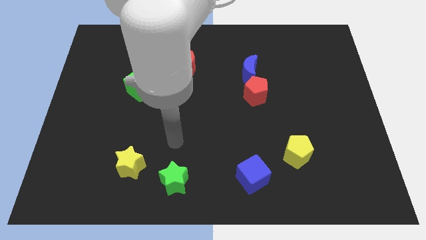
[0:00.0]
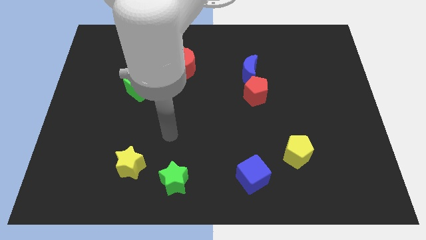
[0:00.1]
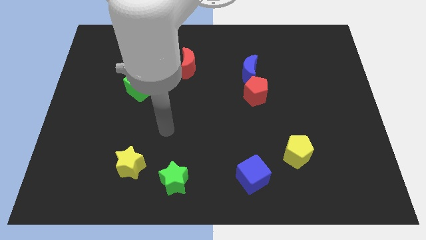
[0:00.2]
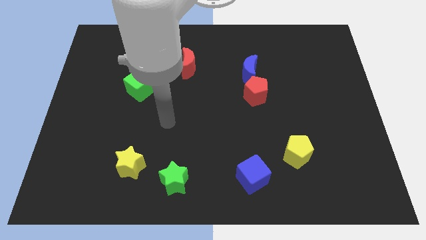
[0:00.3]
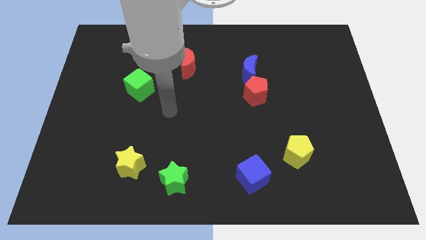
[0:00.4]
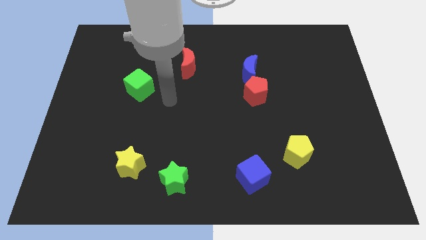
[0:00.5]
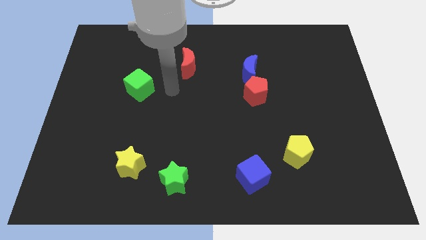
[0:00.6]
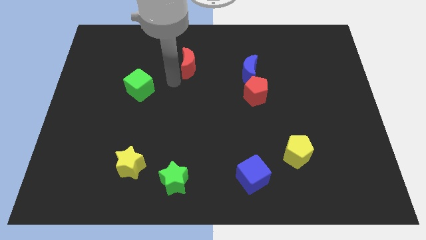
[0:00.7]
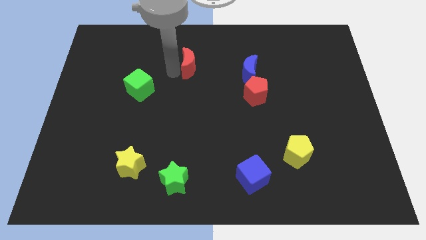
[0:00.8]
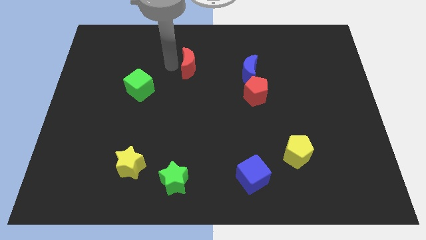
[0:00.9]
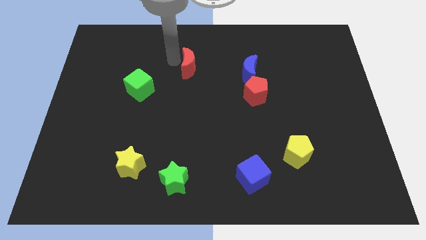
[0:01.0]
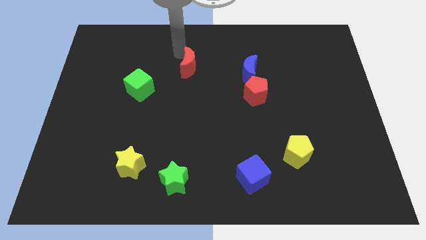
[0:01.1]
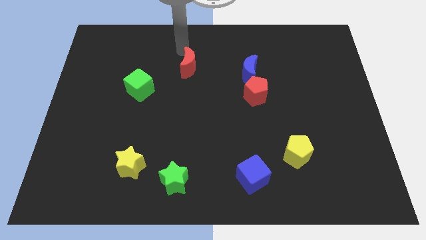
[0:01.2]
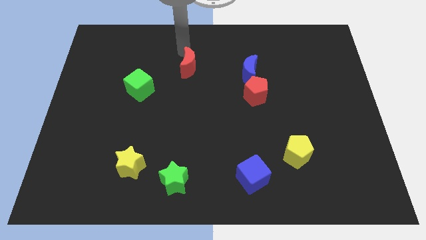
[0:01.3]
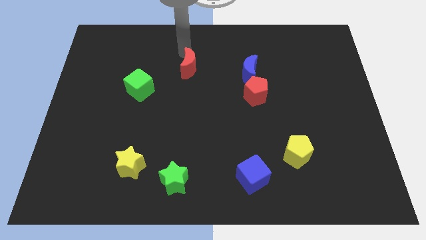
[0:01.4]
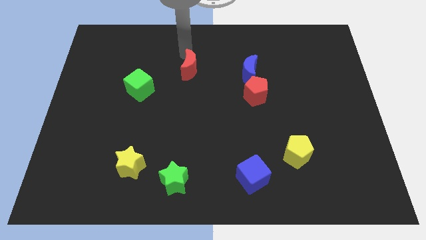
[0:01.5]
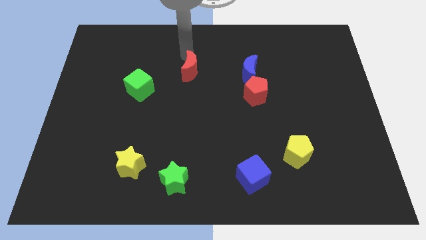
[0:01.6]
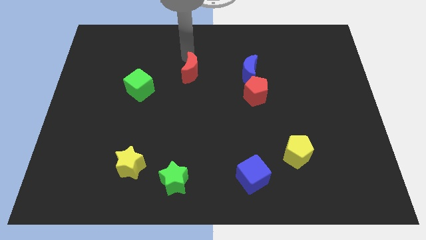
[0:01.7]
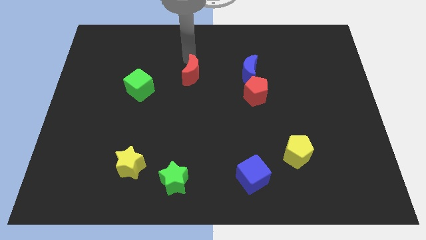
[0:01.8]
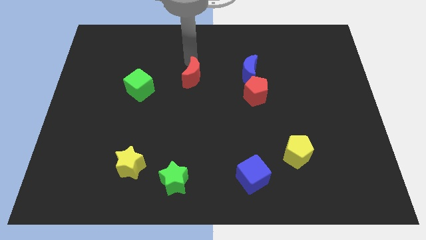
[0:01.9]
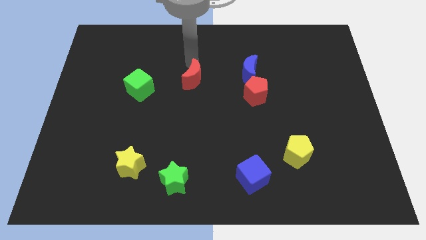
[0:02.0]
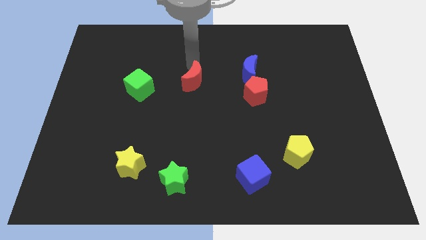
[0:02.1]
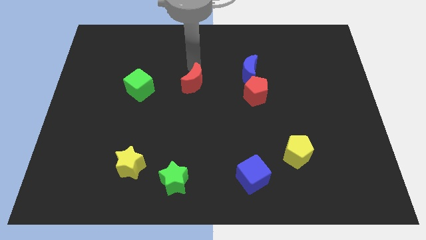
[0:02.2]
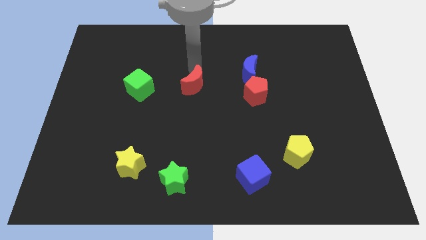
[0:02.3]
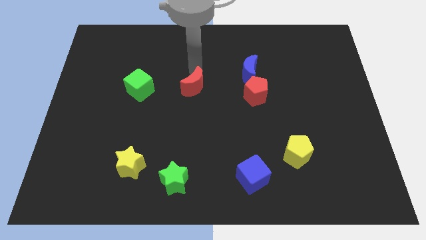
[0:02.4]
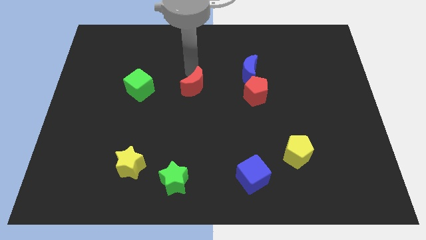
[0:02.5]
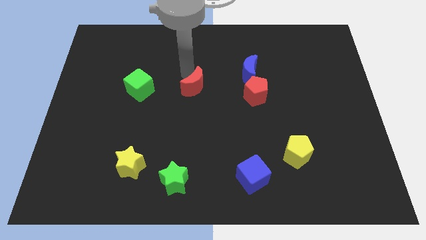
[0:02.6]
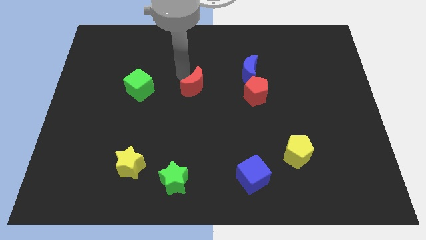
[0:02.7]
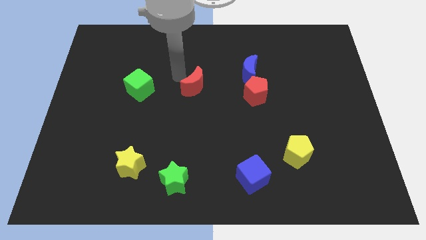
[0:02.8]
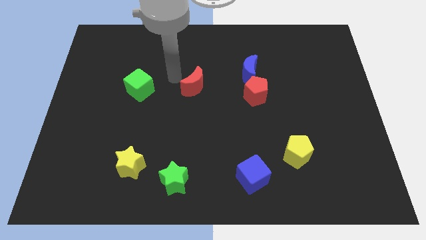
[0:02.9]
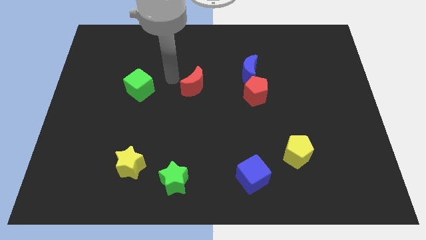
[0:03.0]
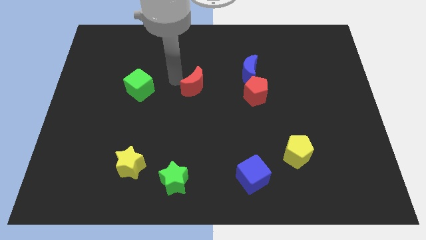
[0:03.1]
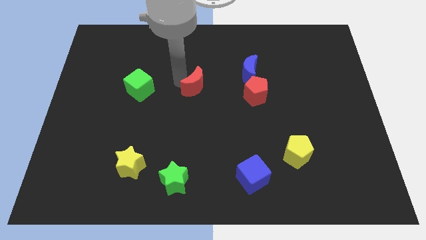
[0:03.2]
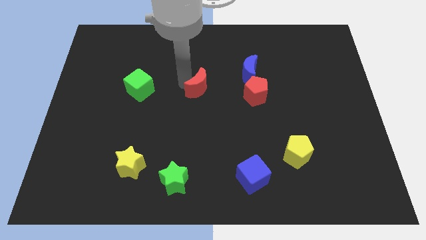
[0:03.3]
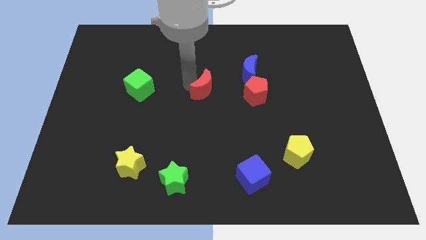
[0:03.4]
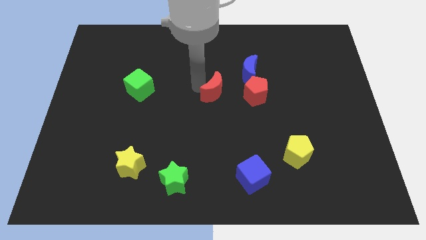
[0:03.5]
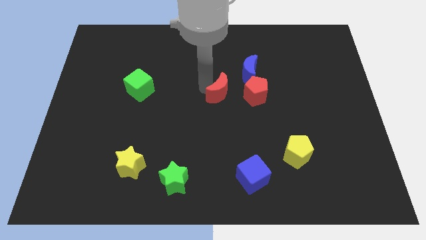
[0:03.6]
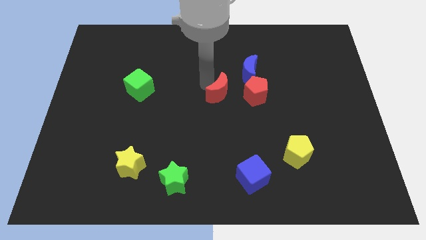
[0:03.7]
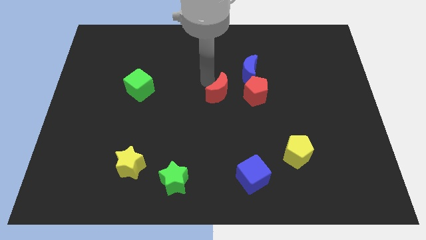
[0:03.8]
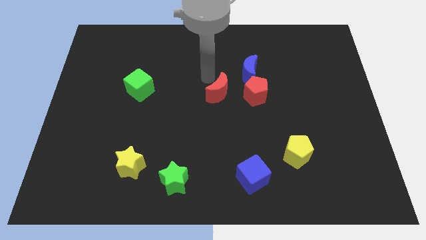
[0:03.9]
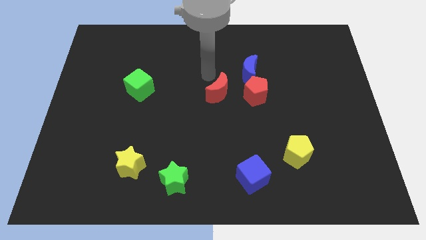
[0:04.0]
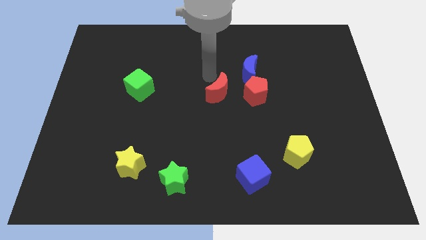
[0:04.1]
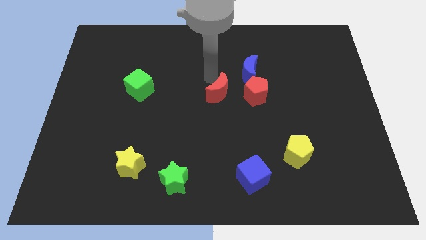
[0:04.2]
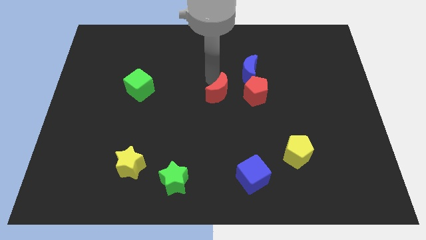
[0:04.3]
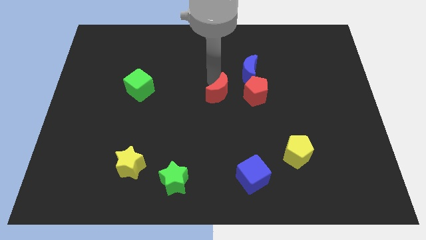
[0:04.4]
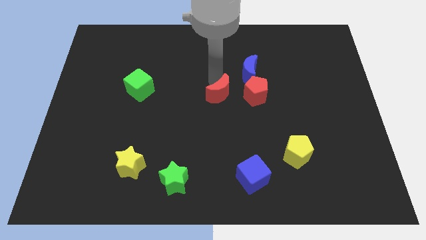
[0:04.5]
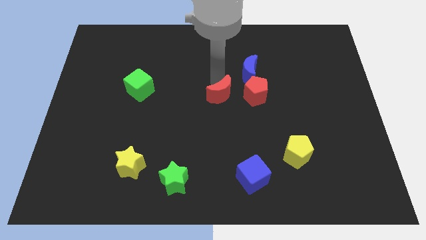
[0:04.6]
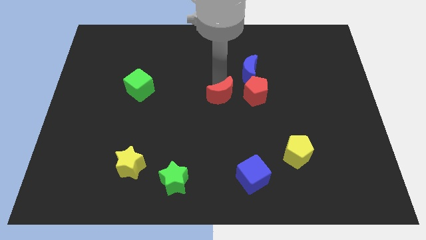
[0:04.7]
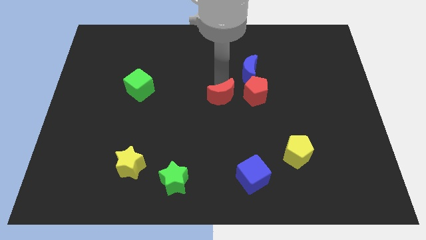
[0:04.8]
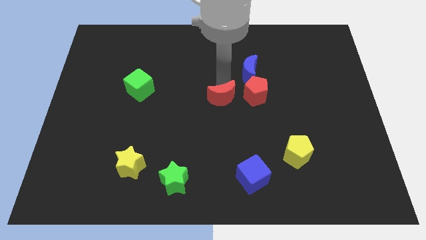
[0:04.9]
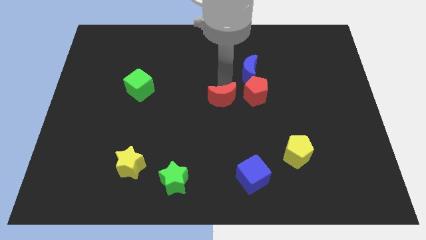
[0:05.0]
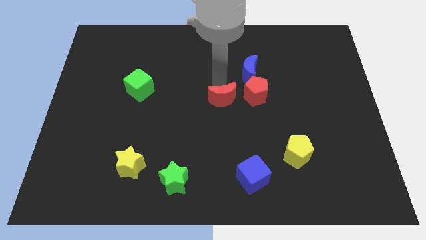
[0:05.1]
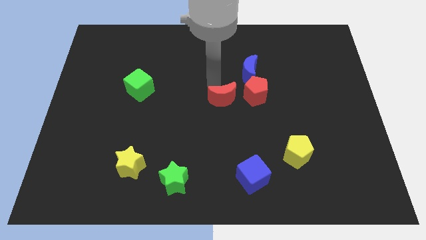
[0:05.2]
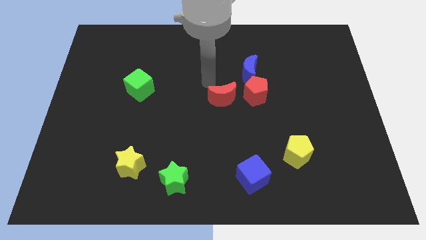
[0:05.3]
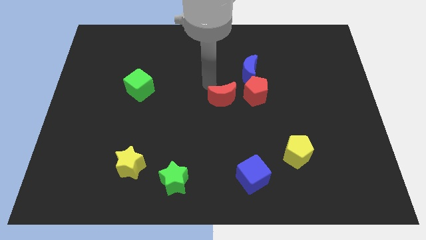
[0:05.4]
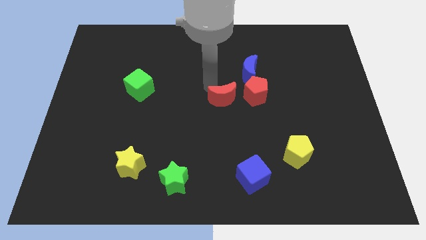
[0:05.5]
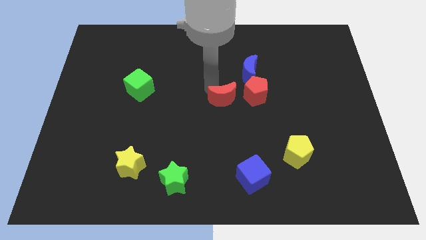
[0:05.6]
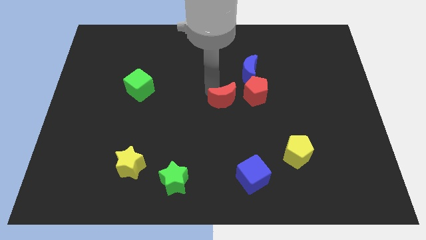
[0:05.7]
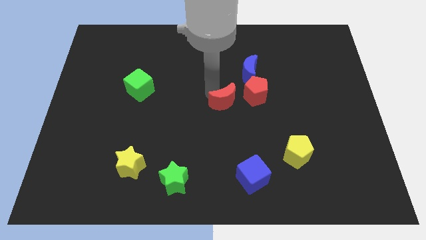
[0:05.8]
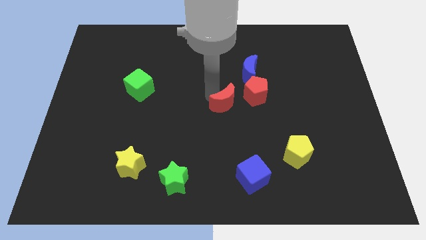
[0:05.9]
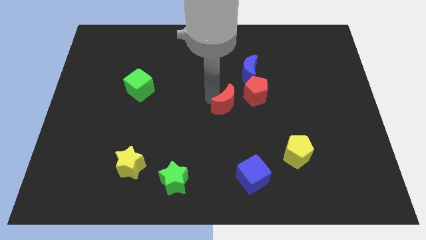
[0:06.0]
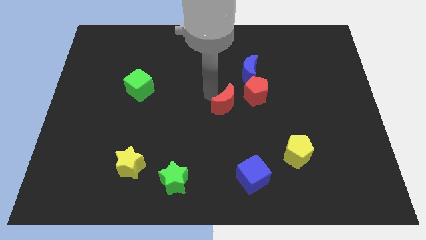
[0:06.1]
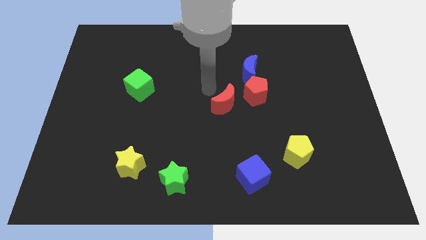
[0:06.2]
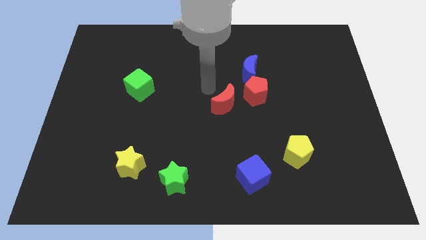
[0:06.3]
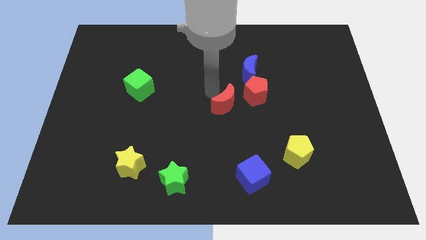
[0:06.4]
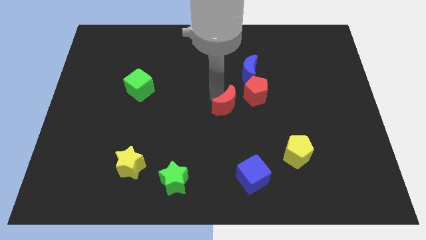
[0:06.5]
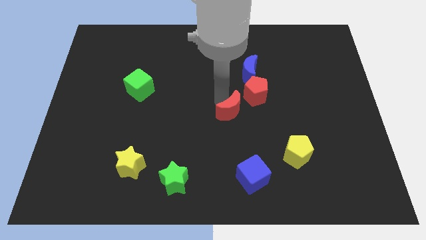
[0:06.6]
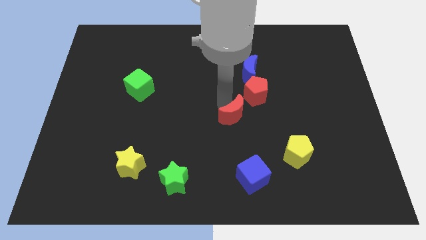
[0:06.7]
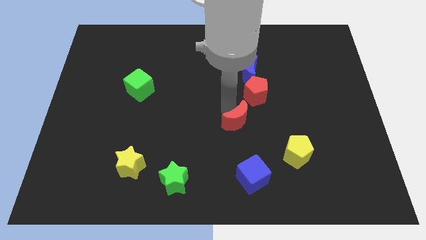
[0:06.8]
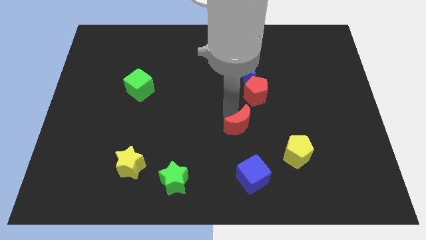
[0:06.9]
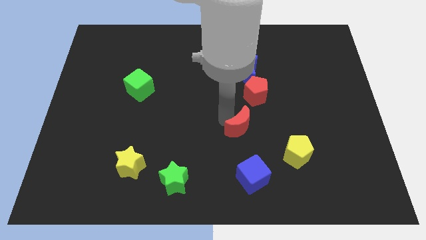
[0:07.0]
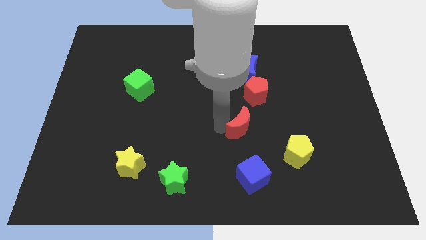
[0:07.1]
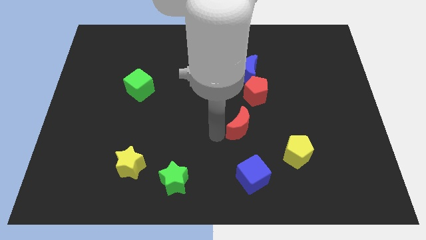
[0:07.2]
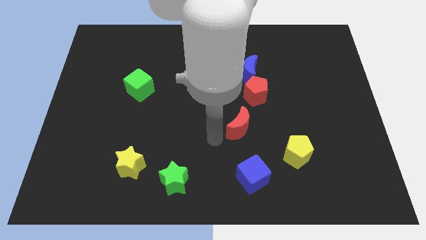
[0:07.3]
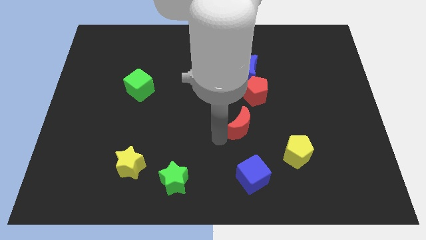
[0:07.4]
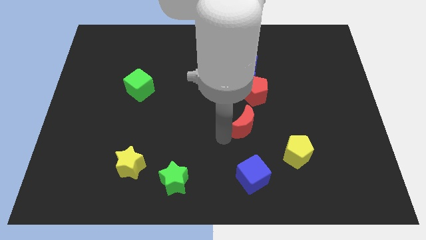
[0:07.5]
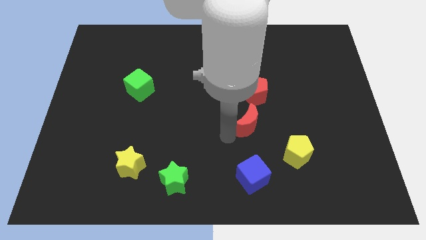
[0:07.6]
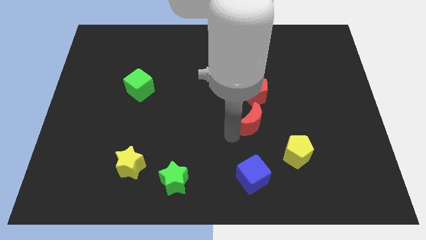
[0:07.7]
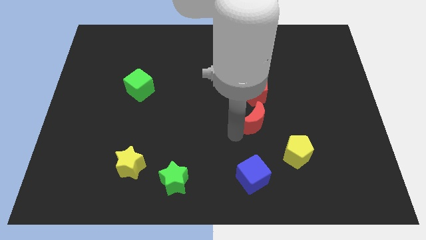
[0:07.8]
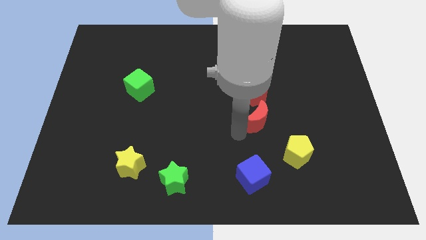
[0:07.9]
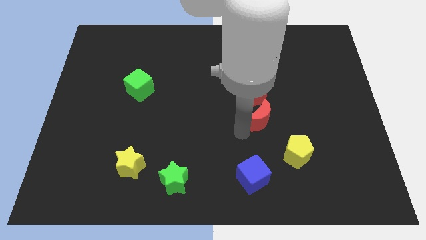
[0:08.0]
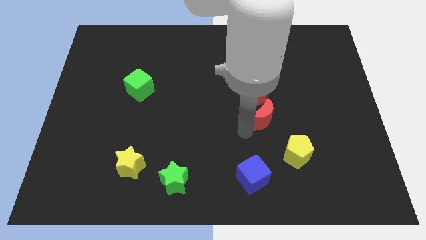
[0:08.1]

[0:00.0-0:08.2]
move the red moon to the bottom right of the red pentagon
